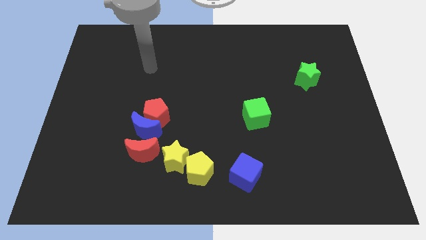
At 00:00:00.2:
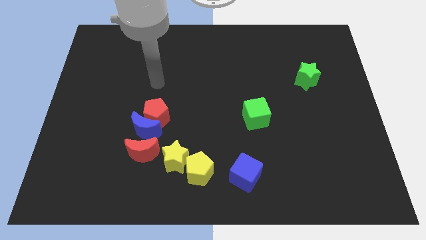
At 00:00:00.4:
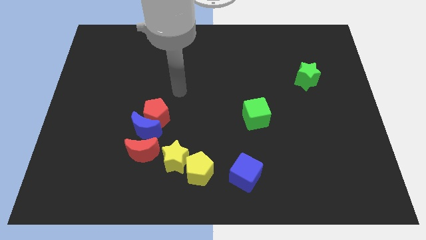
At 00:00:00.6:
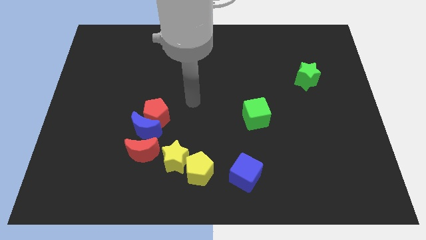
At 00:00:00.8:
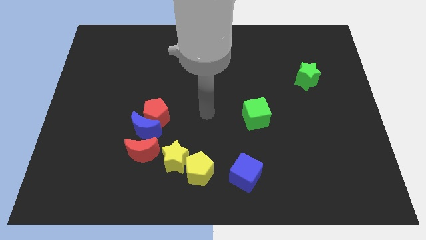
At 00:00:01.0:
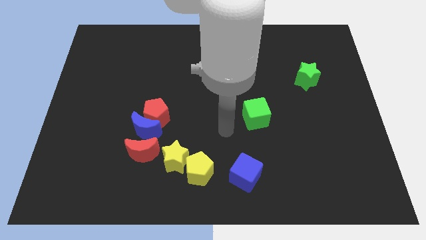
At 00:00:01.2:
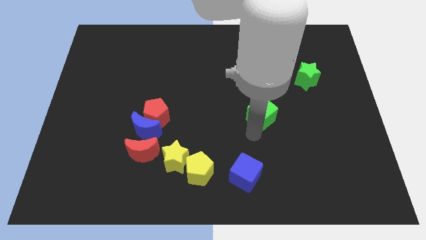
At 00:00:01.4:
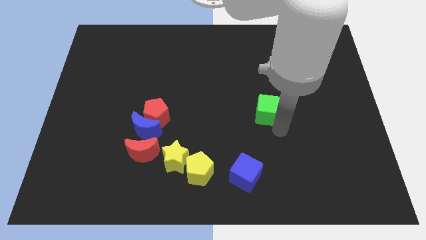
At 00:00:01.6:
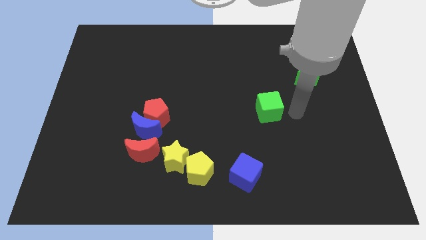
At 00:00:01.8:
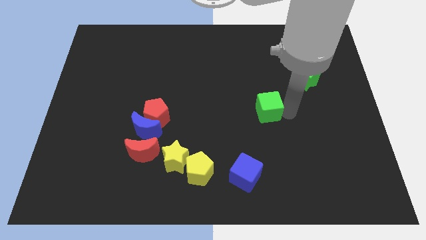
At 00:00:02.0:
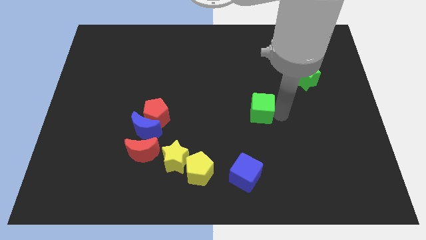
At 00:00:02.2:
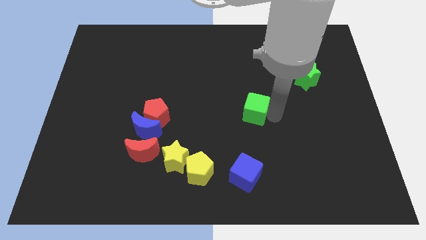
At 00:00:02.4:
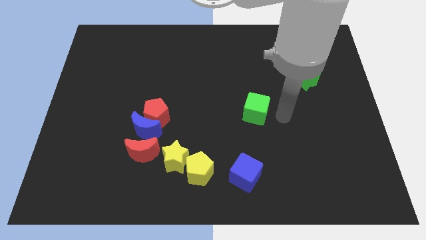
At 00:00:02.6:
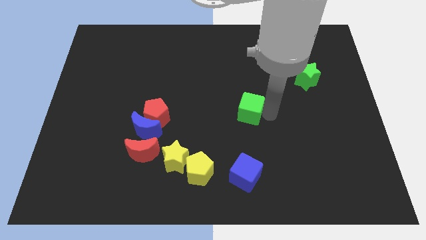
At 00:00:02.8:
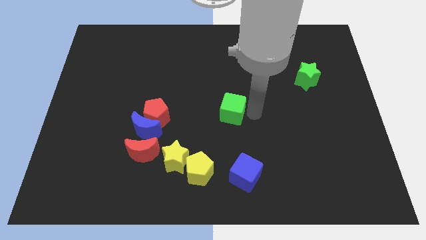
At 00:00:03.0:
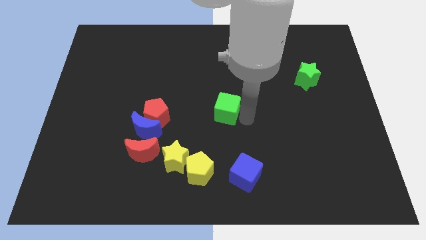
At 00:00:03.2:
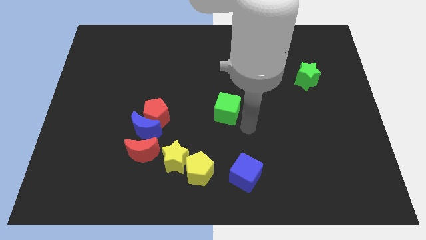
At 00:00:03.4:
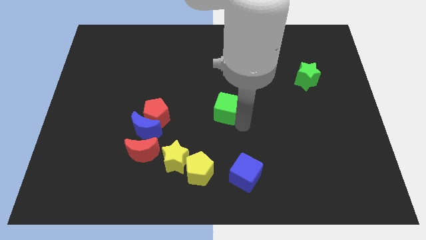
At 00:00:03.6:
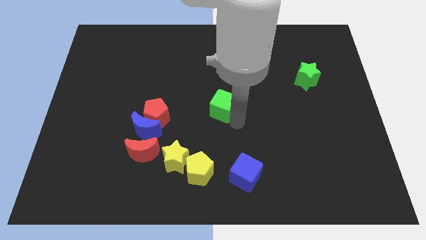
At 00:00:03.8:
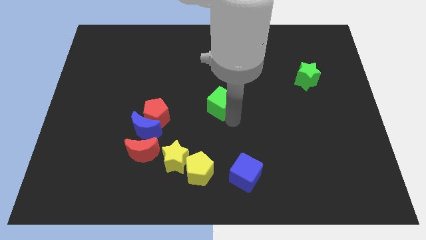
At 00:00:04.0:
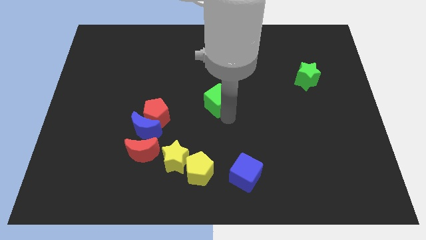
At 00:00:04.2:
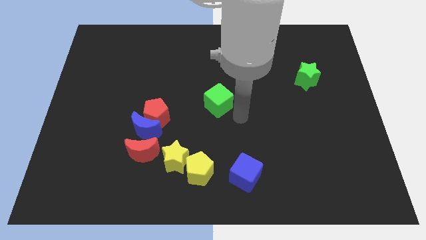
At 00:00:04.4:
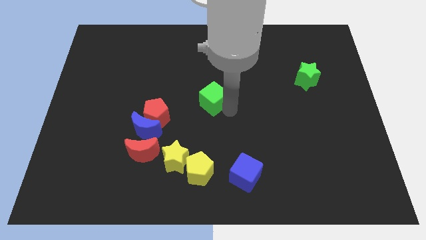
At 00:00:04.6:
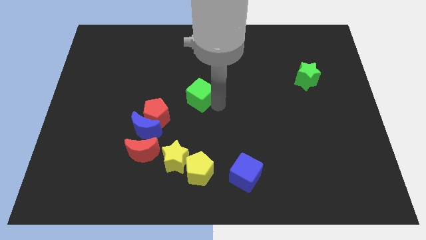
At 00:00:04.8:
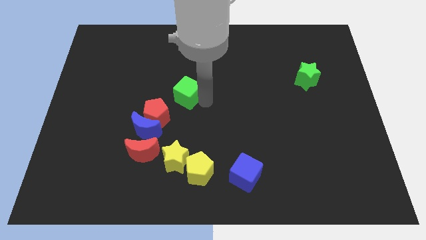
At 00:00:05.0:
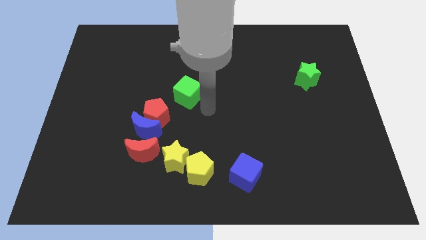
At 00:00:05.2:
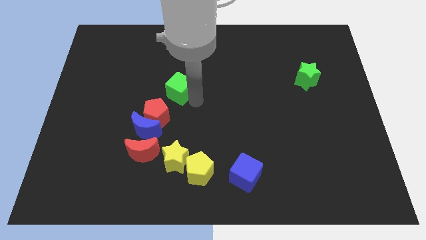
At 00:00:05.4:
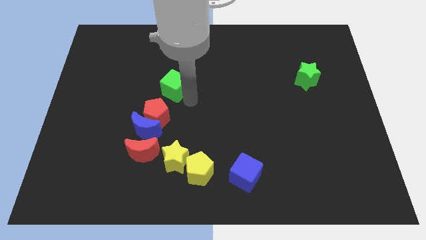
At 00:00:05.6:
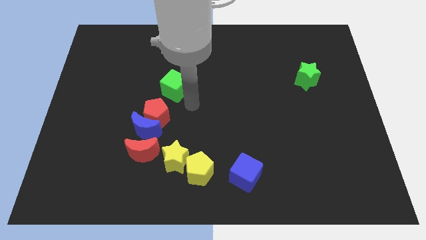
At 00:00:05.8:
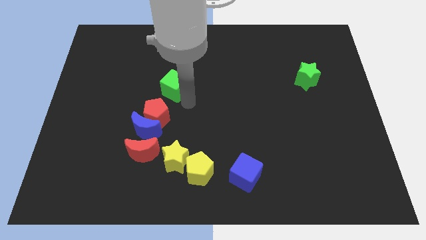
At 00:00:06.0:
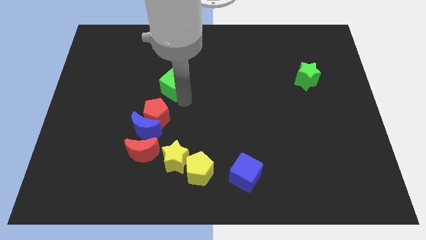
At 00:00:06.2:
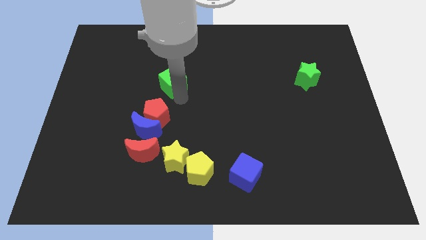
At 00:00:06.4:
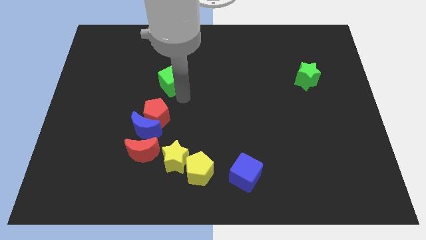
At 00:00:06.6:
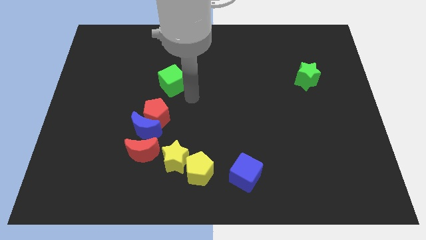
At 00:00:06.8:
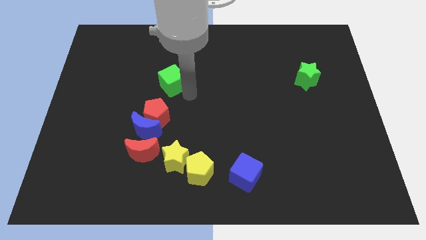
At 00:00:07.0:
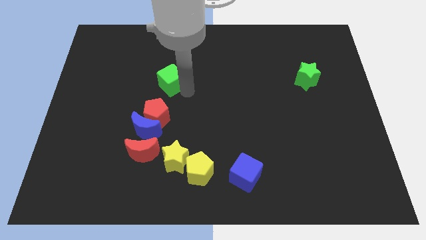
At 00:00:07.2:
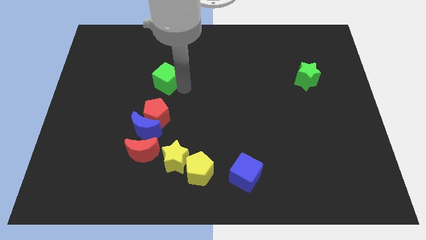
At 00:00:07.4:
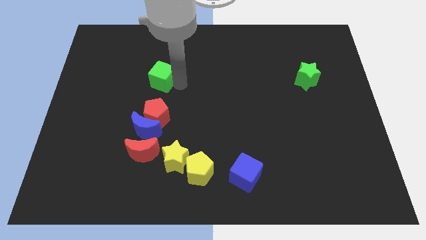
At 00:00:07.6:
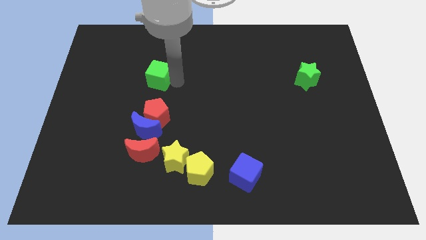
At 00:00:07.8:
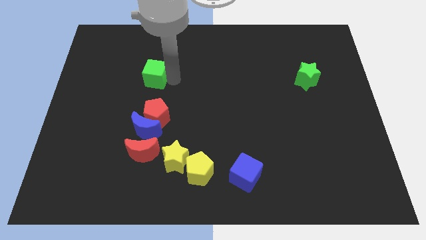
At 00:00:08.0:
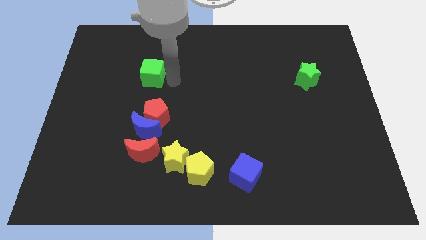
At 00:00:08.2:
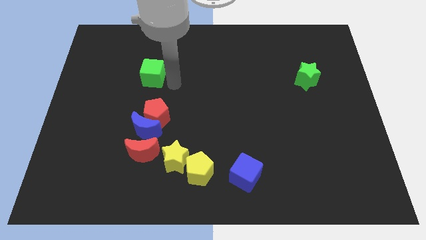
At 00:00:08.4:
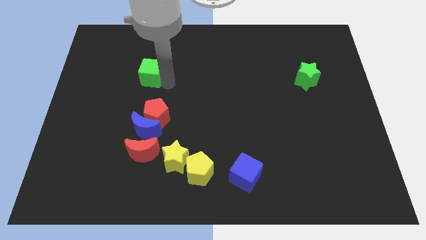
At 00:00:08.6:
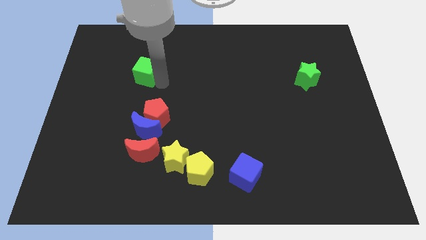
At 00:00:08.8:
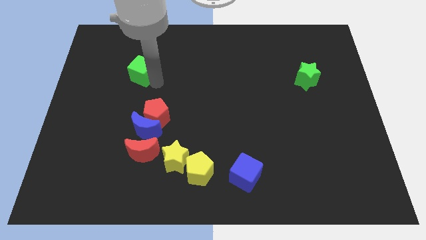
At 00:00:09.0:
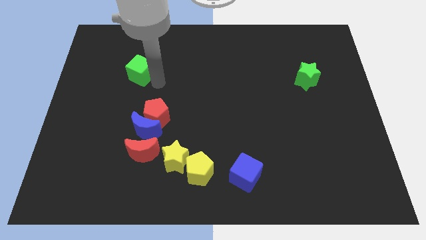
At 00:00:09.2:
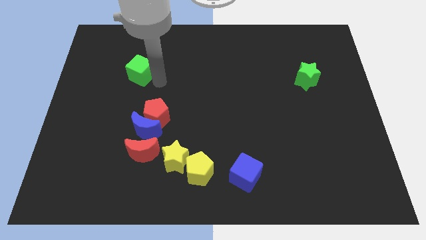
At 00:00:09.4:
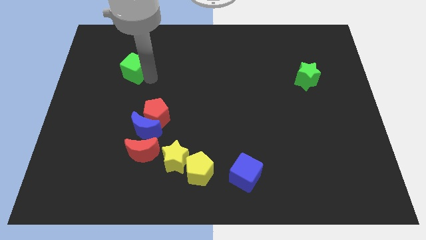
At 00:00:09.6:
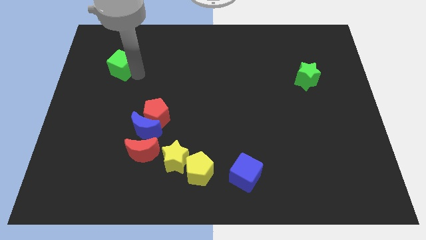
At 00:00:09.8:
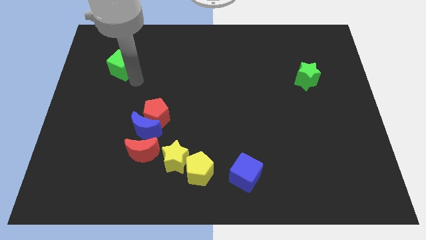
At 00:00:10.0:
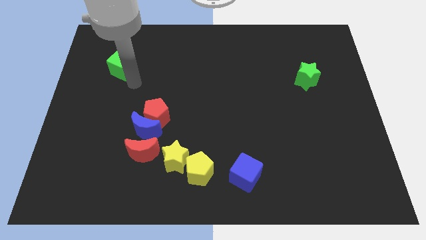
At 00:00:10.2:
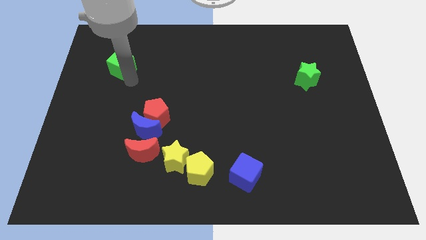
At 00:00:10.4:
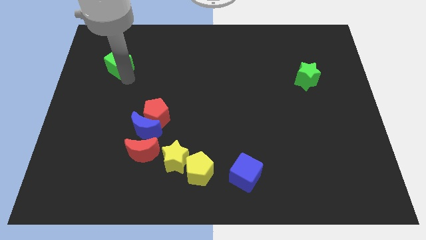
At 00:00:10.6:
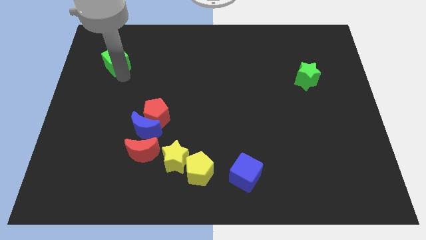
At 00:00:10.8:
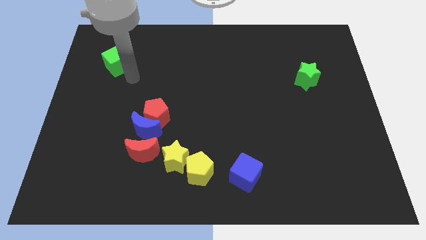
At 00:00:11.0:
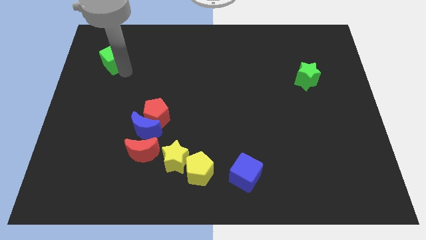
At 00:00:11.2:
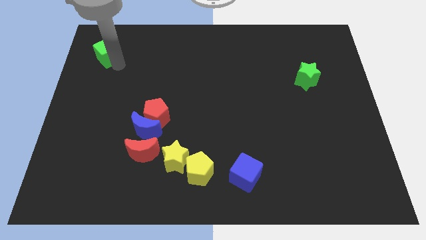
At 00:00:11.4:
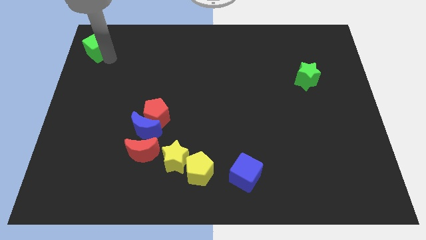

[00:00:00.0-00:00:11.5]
put the green cube to the top left of the board
